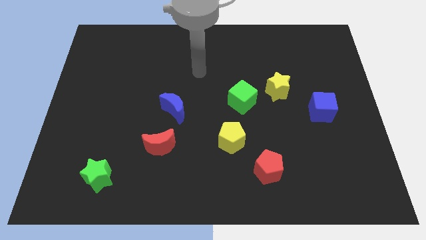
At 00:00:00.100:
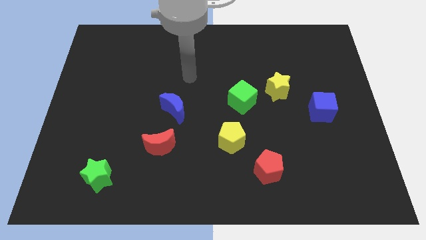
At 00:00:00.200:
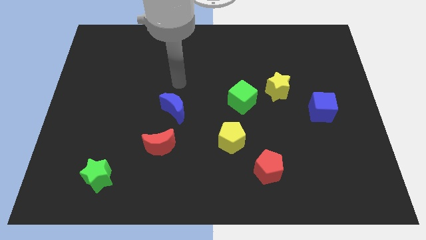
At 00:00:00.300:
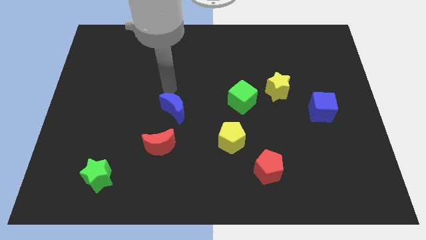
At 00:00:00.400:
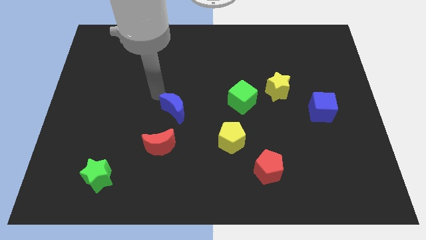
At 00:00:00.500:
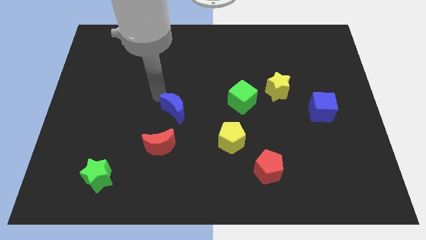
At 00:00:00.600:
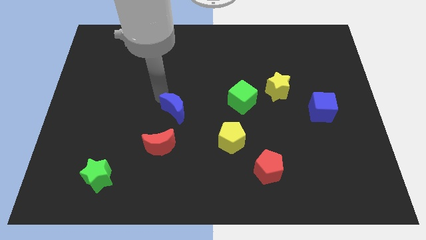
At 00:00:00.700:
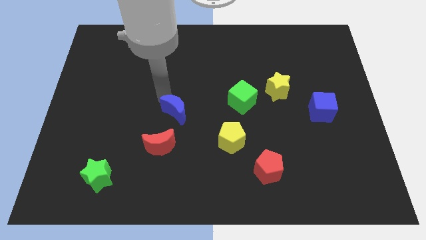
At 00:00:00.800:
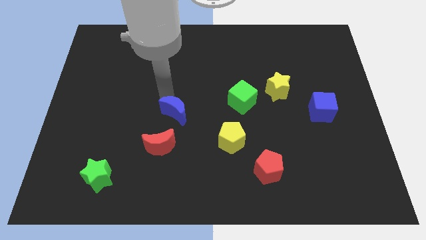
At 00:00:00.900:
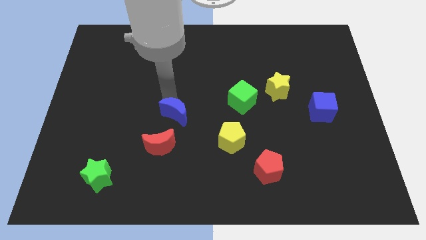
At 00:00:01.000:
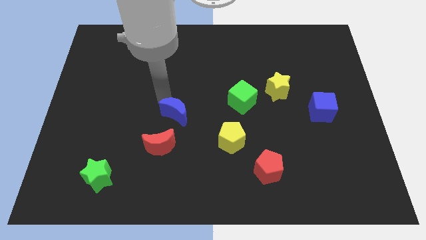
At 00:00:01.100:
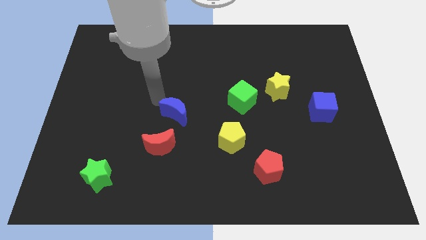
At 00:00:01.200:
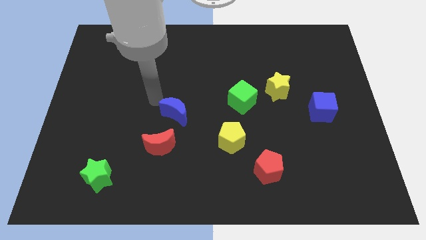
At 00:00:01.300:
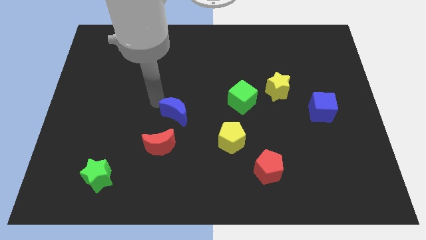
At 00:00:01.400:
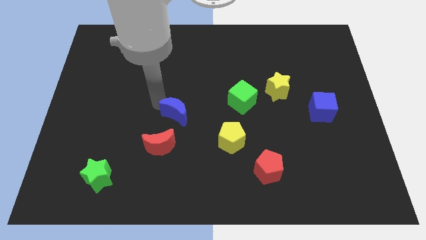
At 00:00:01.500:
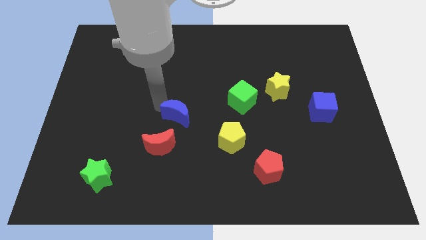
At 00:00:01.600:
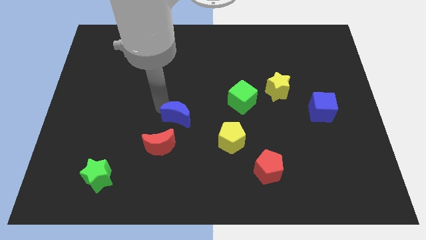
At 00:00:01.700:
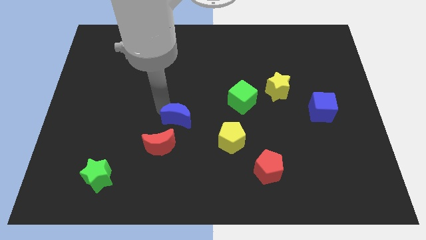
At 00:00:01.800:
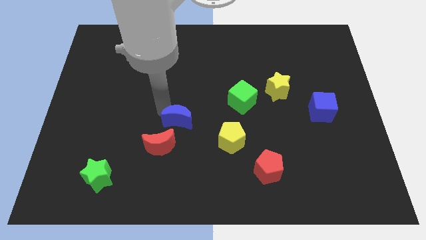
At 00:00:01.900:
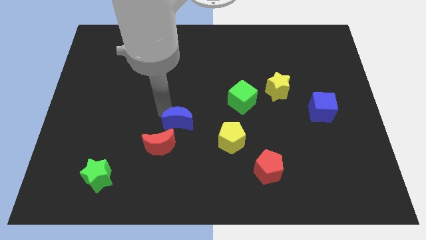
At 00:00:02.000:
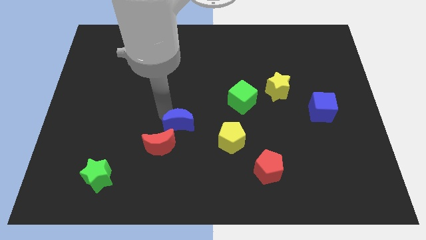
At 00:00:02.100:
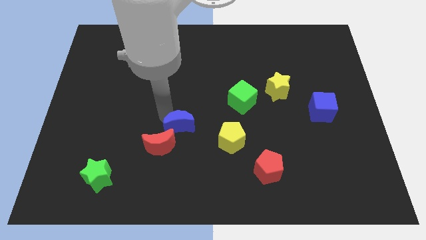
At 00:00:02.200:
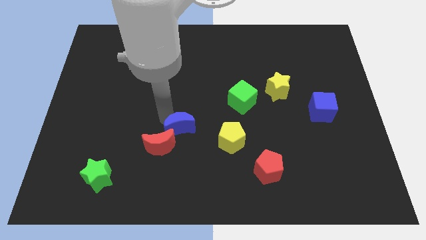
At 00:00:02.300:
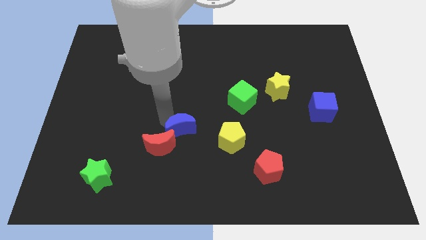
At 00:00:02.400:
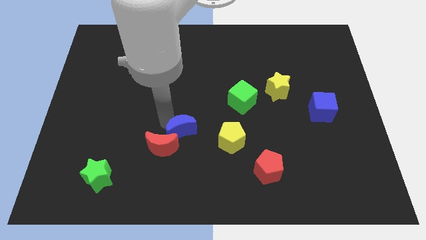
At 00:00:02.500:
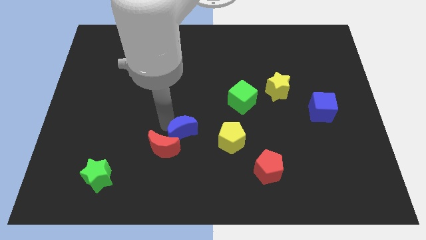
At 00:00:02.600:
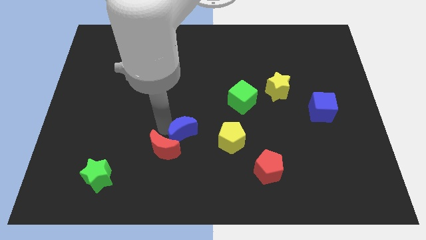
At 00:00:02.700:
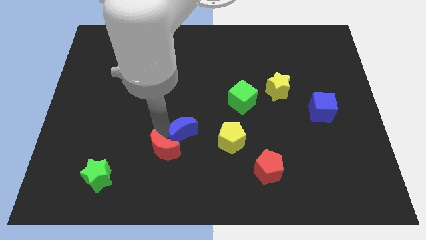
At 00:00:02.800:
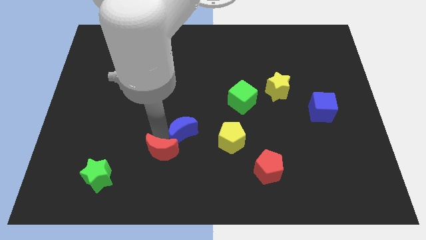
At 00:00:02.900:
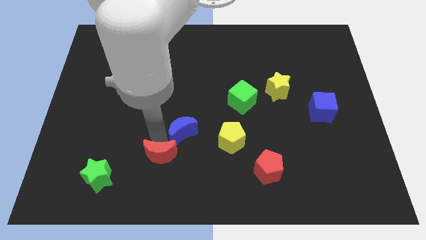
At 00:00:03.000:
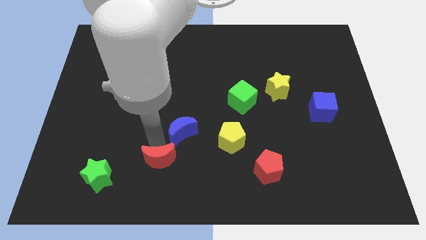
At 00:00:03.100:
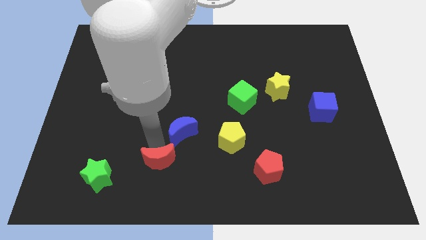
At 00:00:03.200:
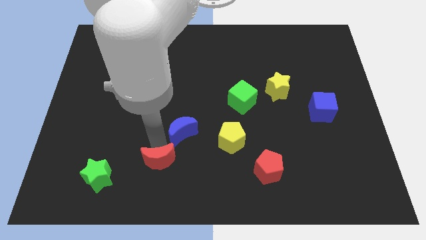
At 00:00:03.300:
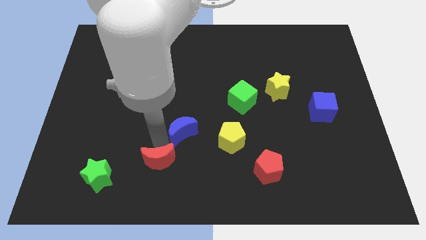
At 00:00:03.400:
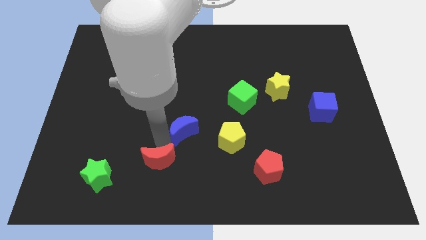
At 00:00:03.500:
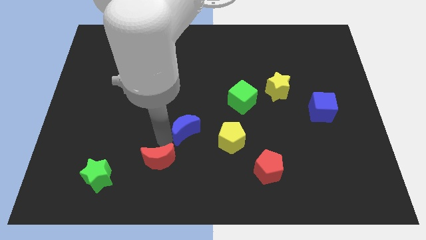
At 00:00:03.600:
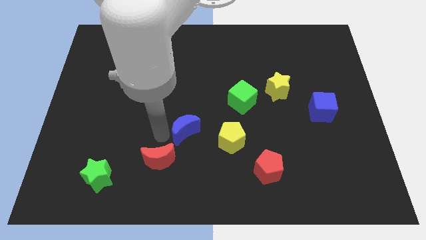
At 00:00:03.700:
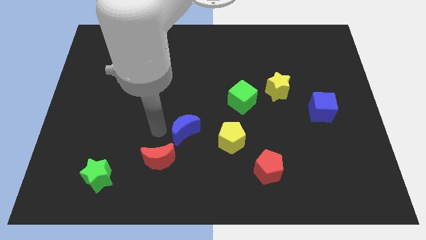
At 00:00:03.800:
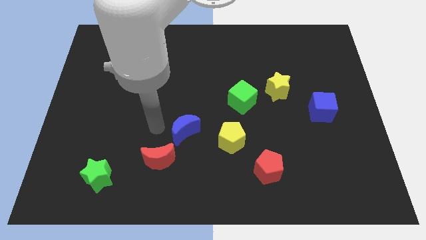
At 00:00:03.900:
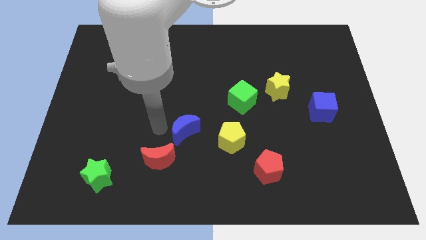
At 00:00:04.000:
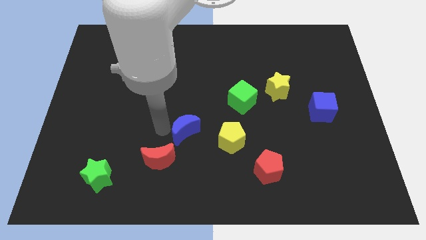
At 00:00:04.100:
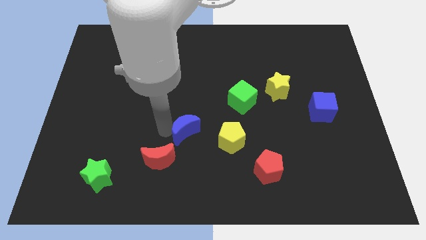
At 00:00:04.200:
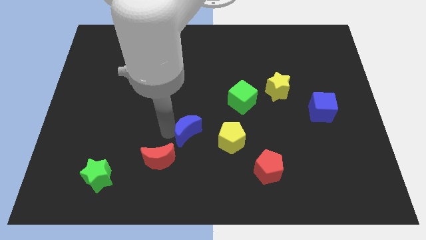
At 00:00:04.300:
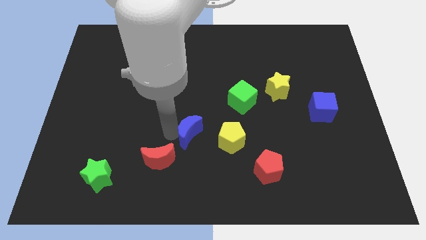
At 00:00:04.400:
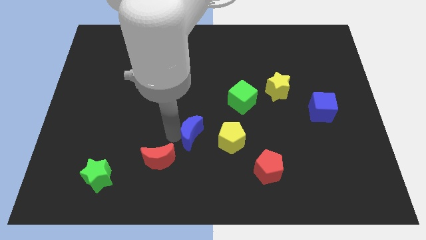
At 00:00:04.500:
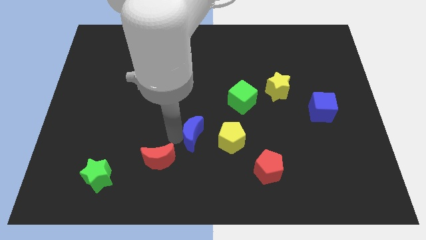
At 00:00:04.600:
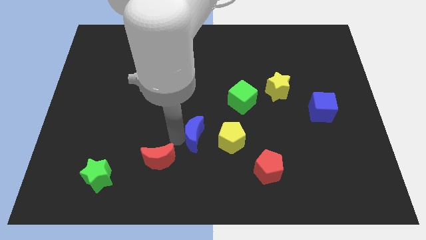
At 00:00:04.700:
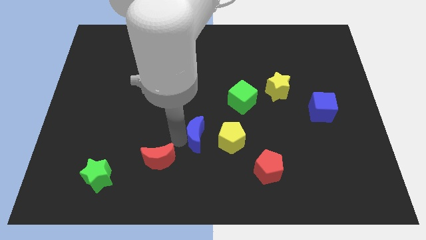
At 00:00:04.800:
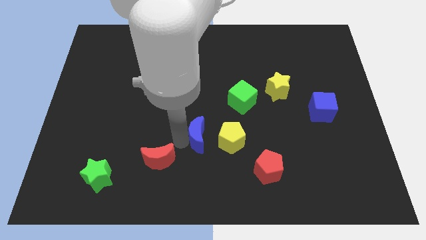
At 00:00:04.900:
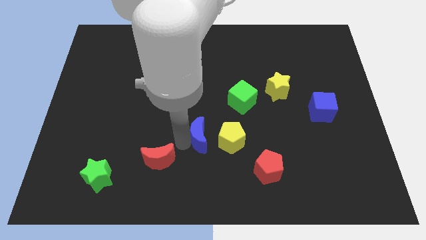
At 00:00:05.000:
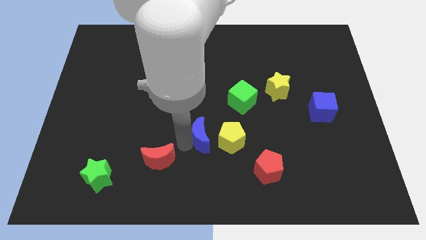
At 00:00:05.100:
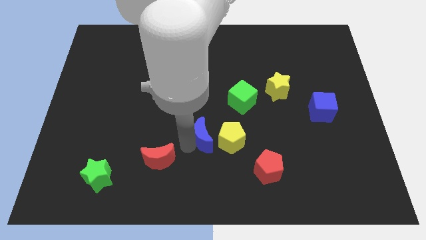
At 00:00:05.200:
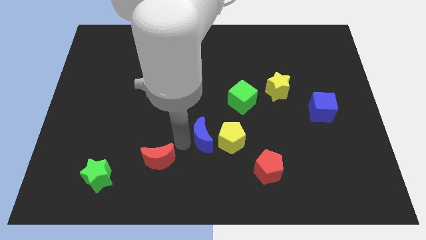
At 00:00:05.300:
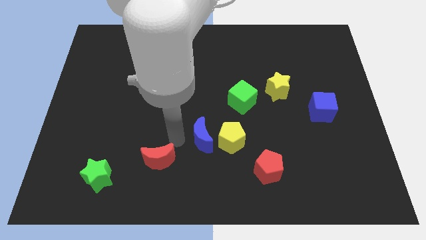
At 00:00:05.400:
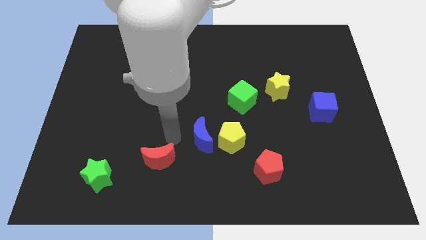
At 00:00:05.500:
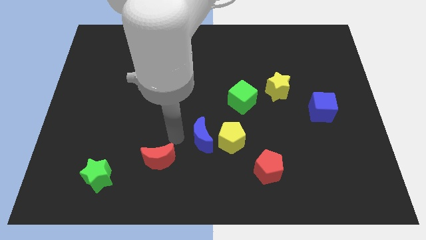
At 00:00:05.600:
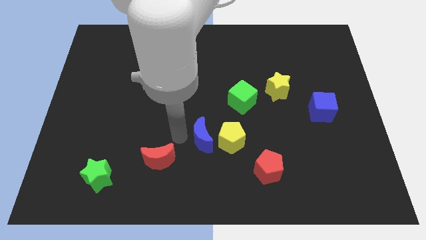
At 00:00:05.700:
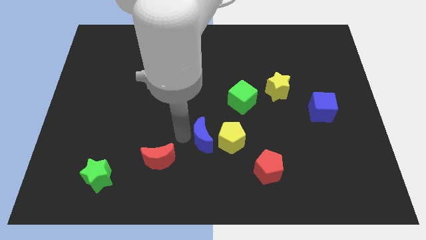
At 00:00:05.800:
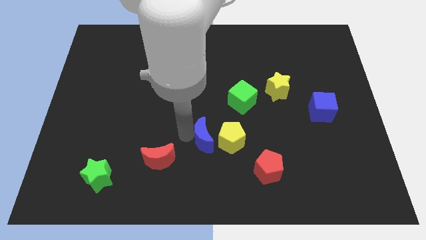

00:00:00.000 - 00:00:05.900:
push the blue moon to the yellow pentagon

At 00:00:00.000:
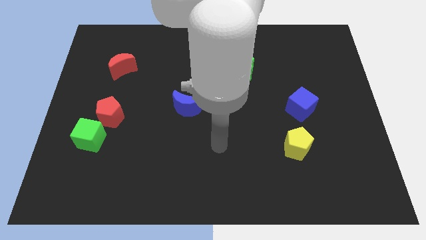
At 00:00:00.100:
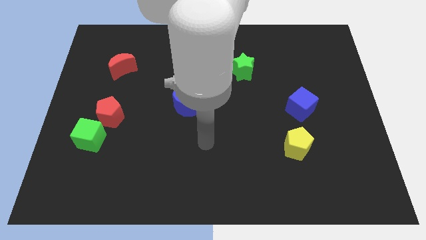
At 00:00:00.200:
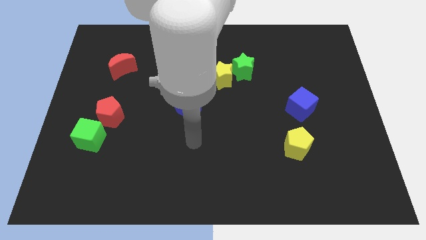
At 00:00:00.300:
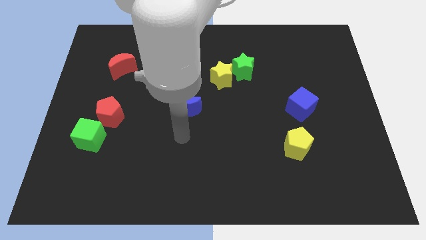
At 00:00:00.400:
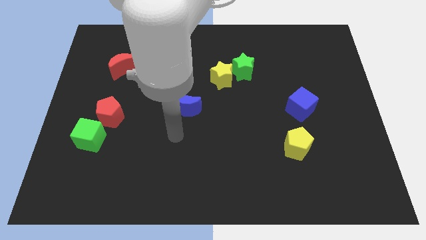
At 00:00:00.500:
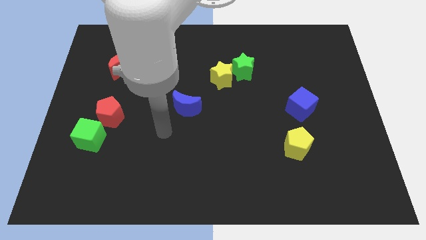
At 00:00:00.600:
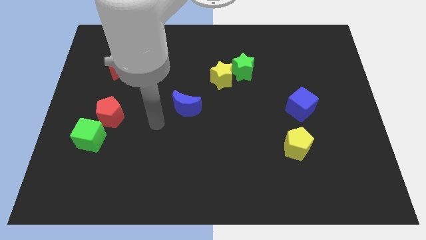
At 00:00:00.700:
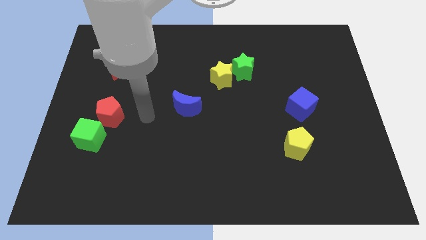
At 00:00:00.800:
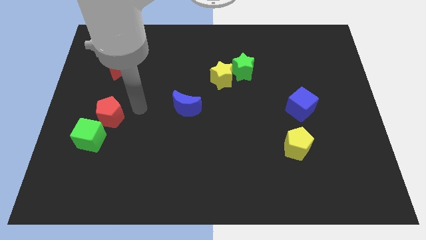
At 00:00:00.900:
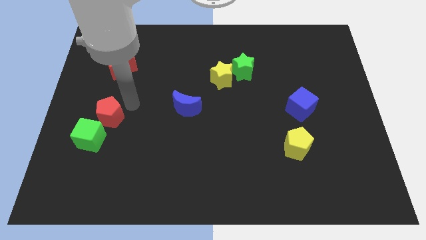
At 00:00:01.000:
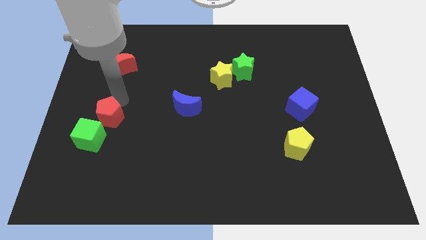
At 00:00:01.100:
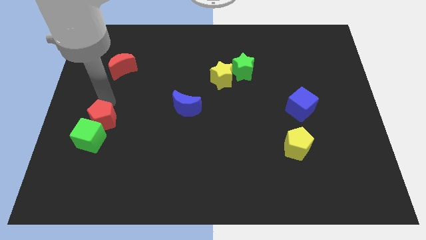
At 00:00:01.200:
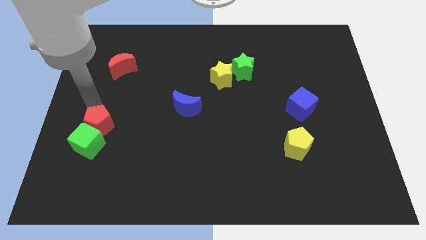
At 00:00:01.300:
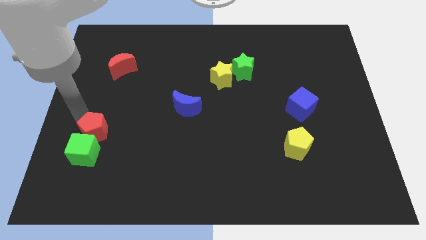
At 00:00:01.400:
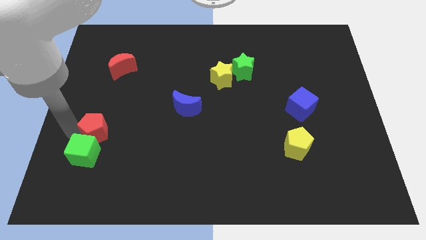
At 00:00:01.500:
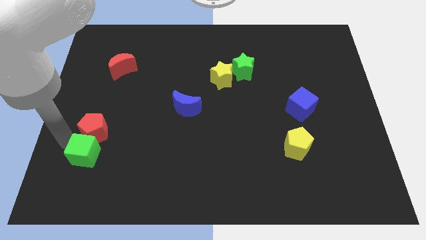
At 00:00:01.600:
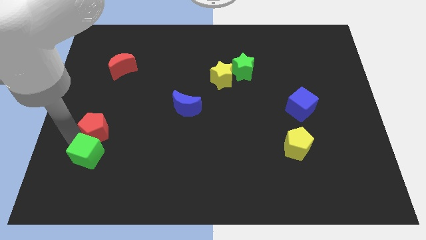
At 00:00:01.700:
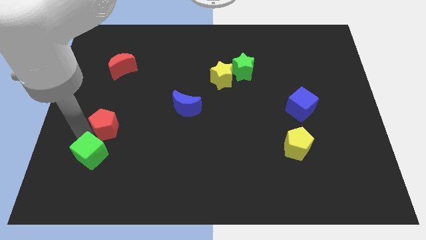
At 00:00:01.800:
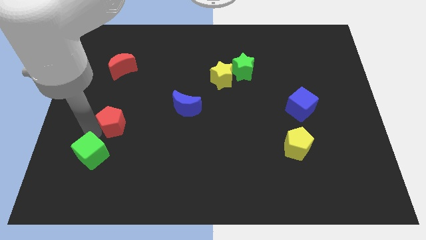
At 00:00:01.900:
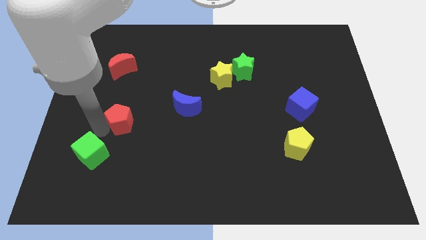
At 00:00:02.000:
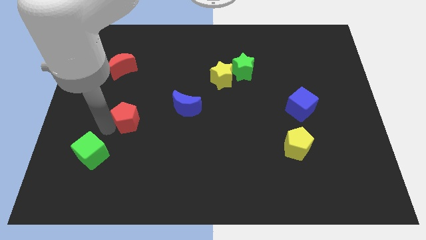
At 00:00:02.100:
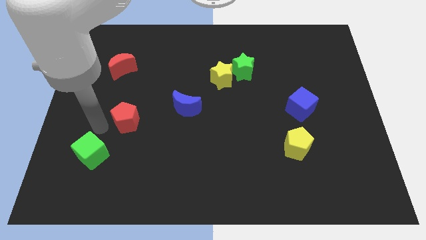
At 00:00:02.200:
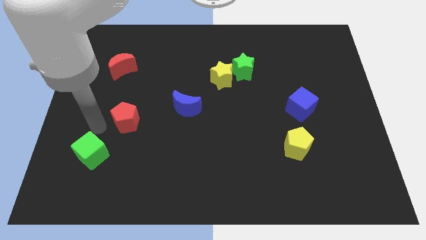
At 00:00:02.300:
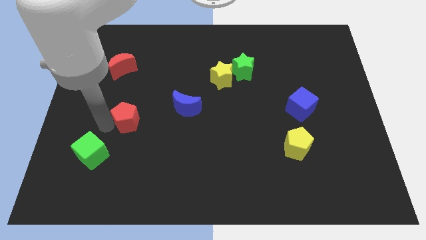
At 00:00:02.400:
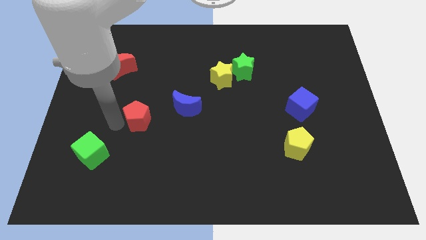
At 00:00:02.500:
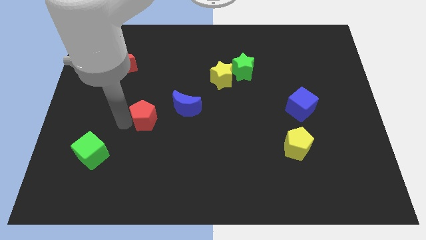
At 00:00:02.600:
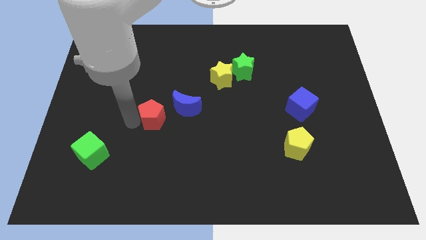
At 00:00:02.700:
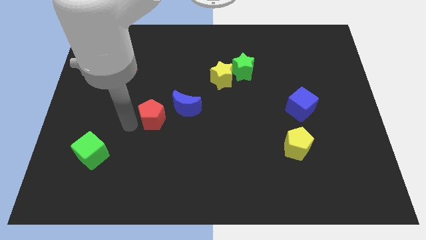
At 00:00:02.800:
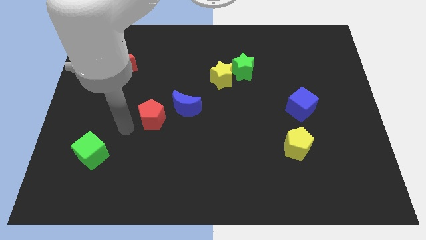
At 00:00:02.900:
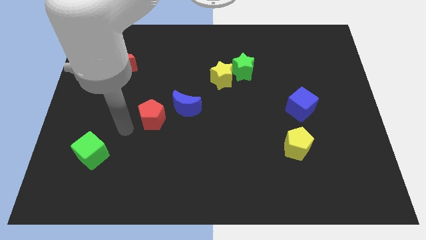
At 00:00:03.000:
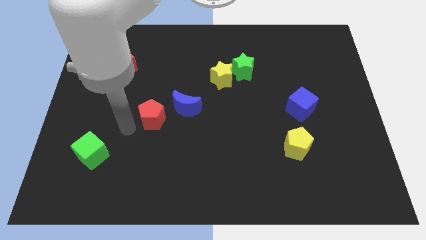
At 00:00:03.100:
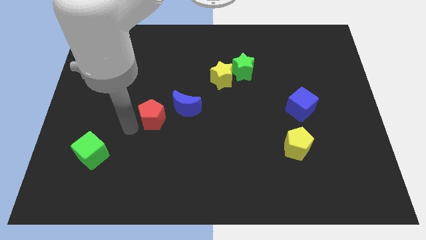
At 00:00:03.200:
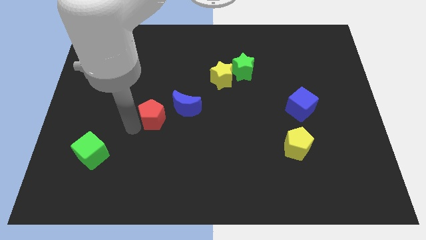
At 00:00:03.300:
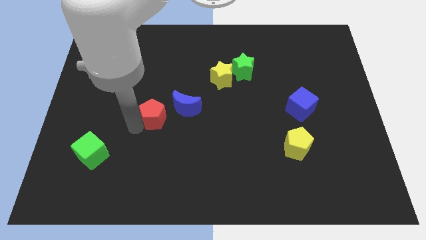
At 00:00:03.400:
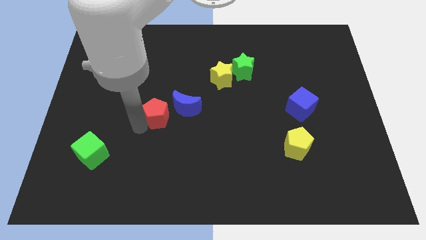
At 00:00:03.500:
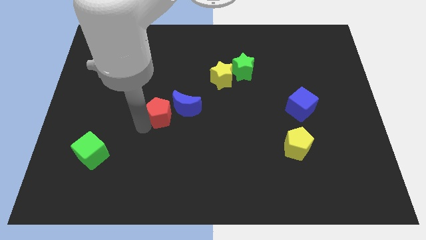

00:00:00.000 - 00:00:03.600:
push the red pentagon towards the blue moon
